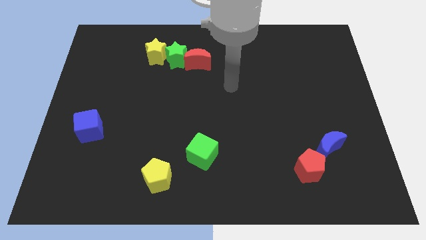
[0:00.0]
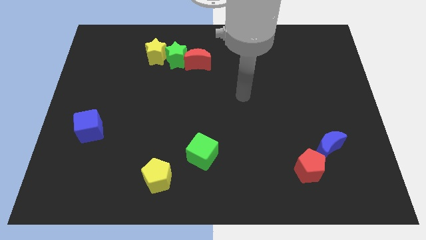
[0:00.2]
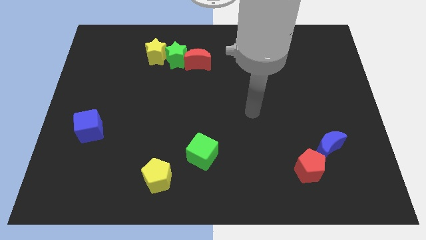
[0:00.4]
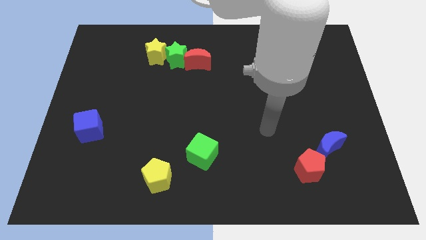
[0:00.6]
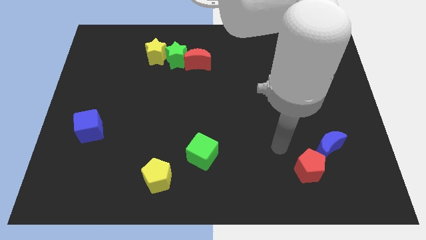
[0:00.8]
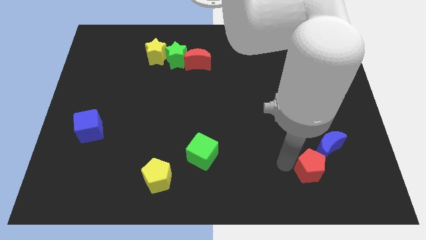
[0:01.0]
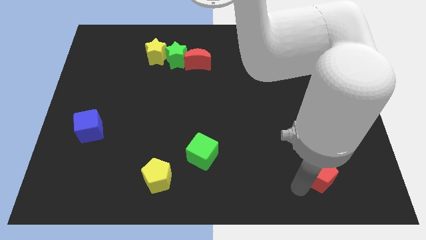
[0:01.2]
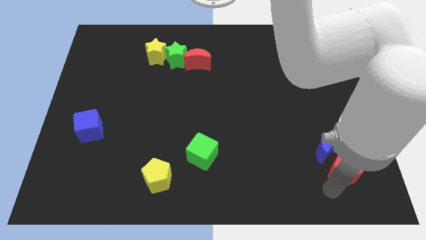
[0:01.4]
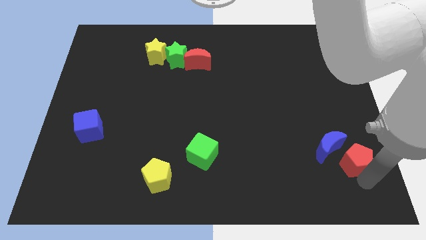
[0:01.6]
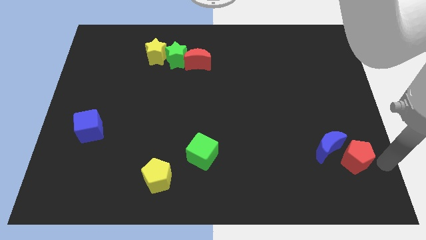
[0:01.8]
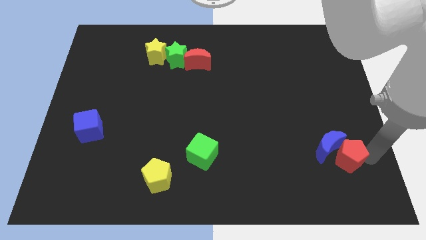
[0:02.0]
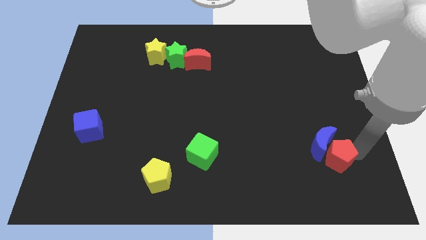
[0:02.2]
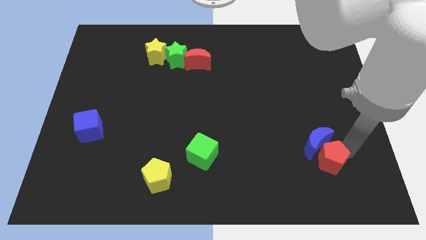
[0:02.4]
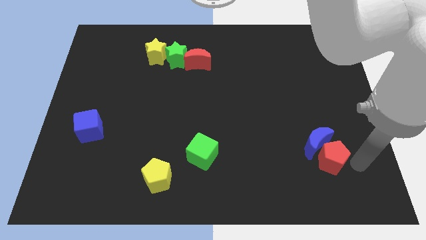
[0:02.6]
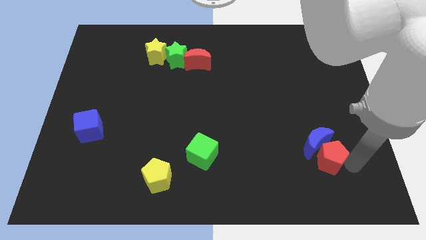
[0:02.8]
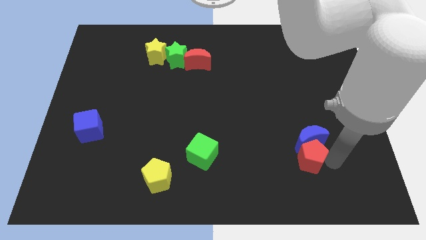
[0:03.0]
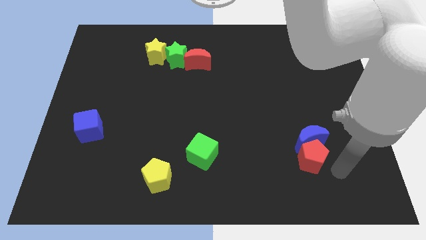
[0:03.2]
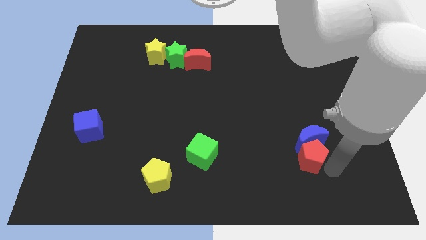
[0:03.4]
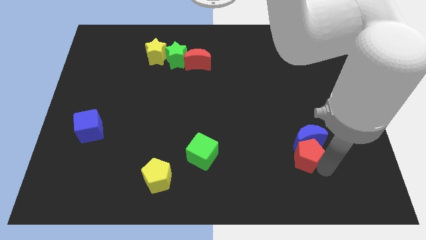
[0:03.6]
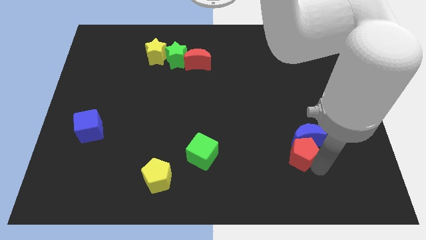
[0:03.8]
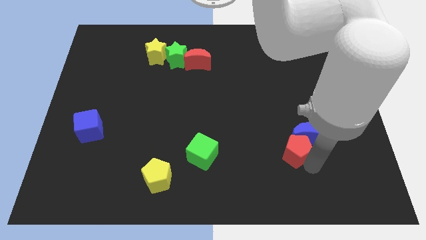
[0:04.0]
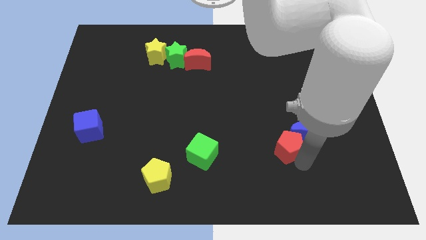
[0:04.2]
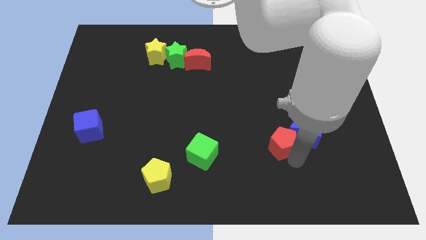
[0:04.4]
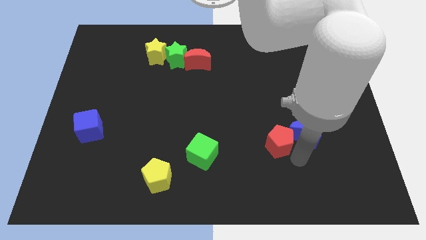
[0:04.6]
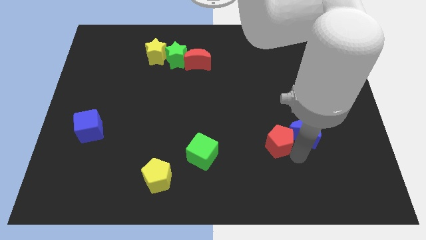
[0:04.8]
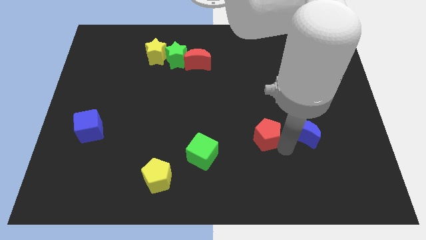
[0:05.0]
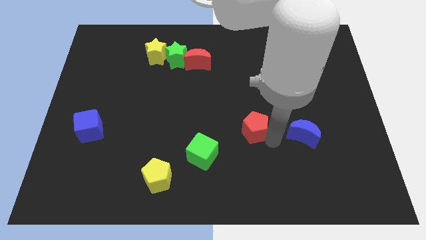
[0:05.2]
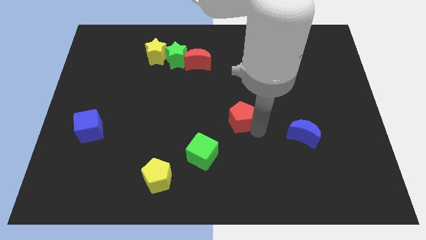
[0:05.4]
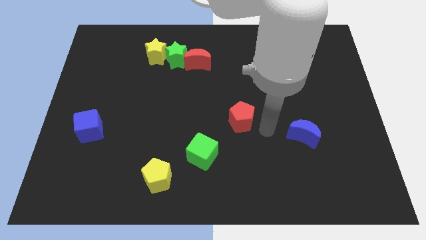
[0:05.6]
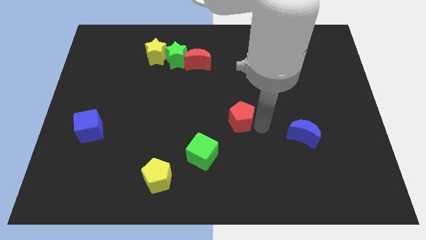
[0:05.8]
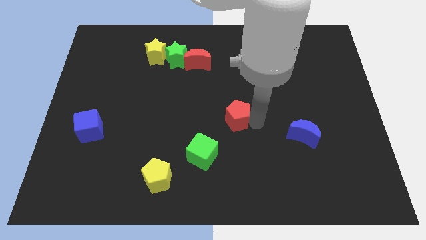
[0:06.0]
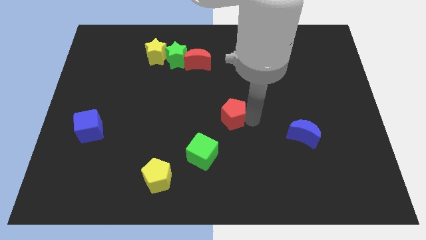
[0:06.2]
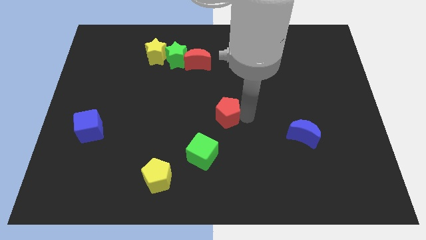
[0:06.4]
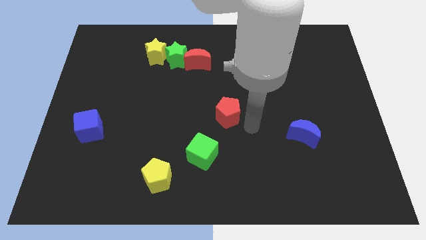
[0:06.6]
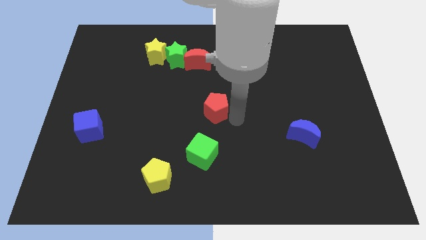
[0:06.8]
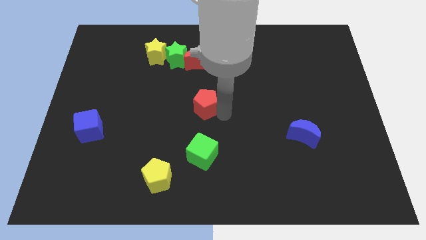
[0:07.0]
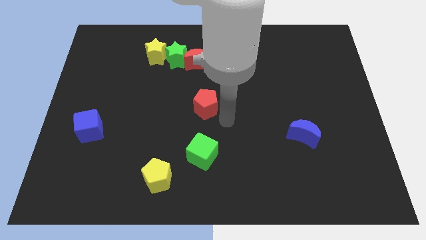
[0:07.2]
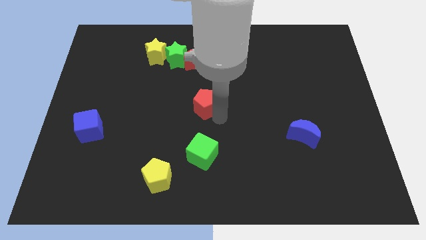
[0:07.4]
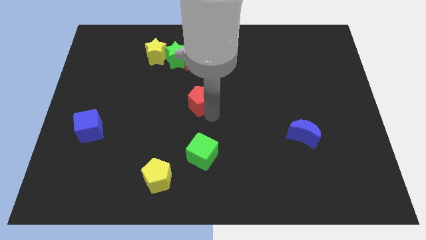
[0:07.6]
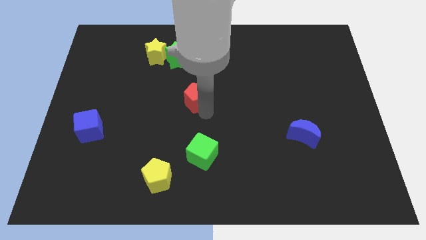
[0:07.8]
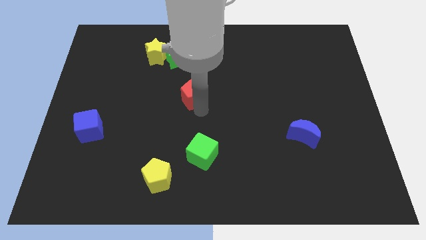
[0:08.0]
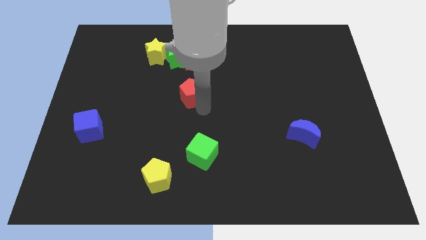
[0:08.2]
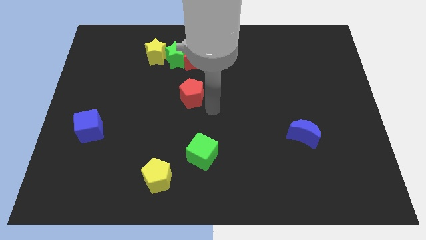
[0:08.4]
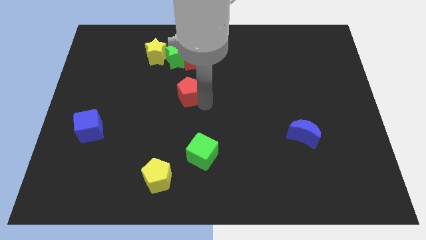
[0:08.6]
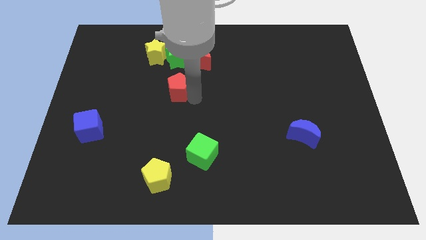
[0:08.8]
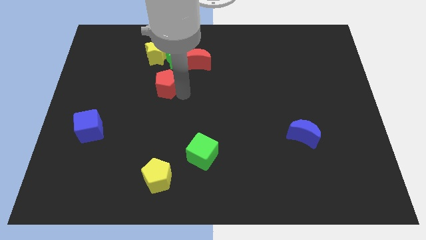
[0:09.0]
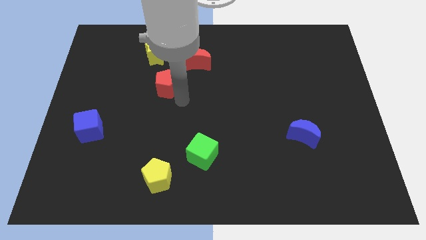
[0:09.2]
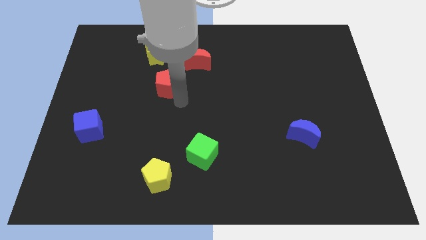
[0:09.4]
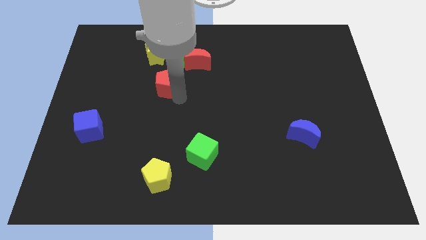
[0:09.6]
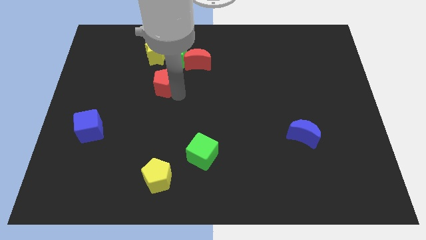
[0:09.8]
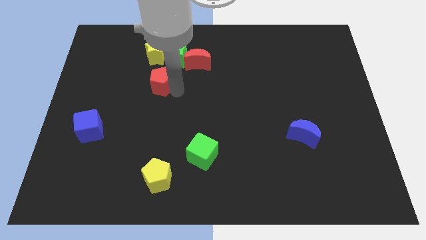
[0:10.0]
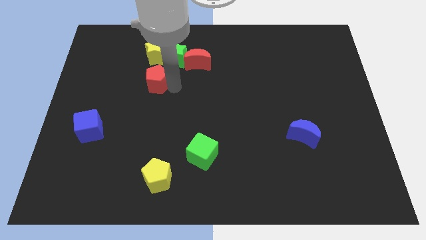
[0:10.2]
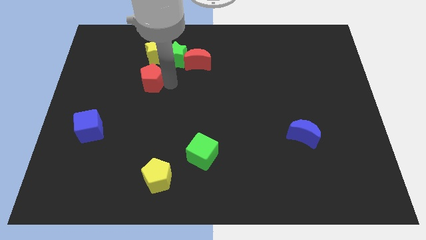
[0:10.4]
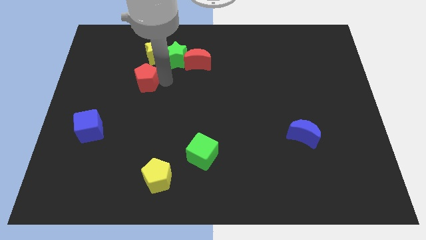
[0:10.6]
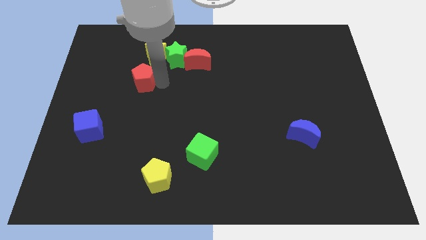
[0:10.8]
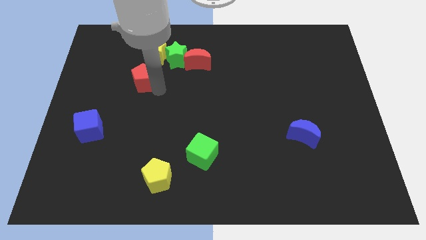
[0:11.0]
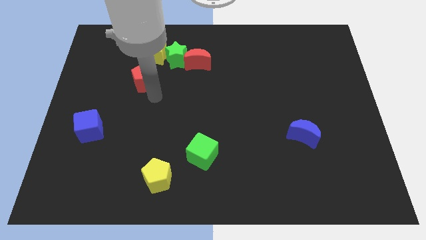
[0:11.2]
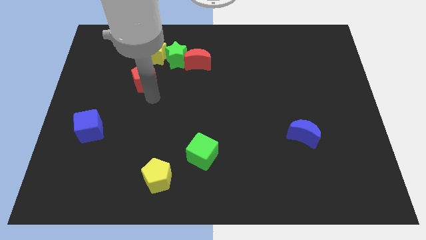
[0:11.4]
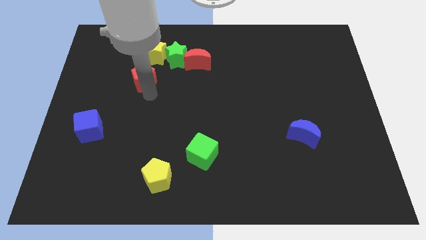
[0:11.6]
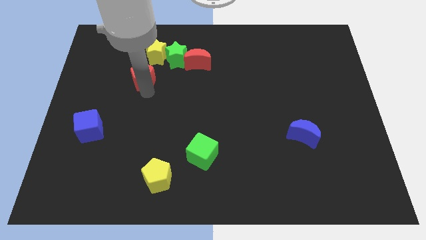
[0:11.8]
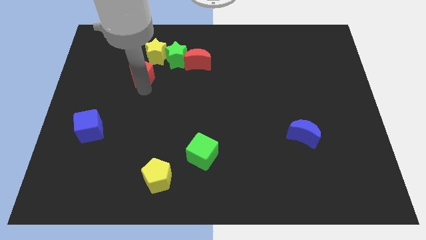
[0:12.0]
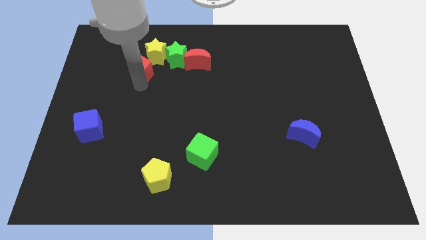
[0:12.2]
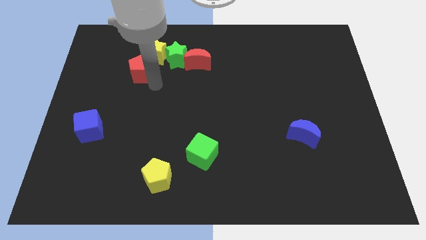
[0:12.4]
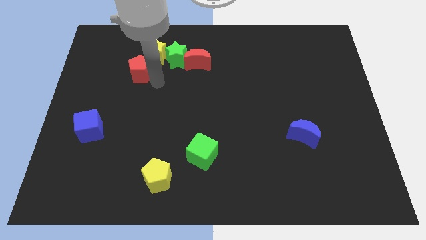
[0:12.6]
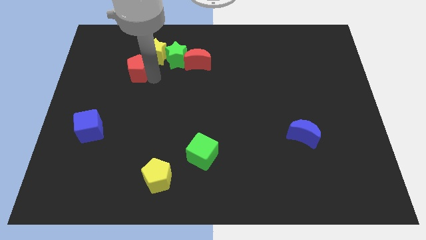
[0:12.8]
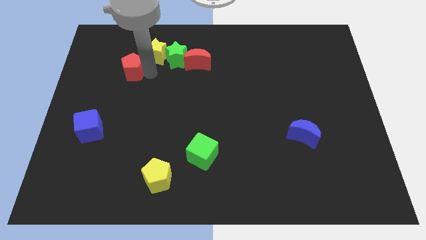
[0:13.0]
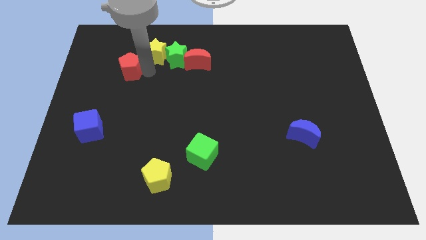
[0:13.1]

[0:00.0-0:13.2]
slide the red pentagon left of the yellow star

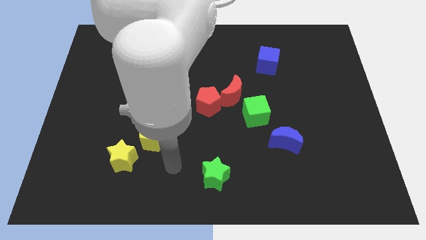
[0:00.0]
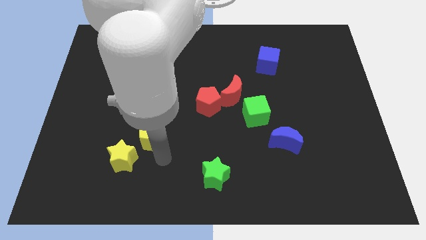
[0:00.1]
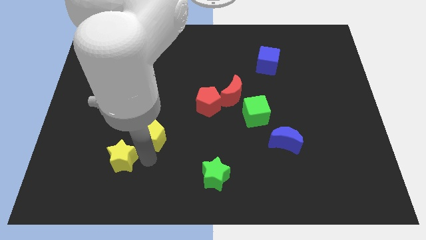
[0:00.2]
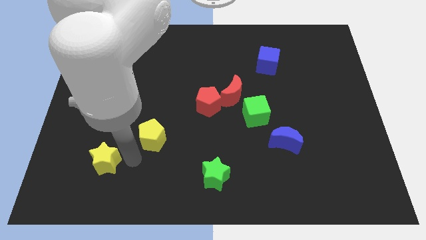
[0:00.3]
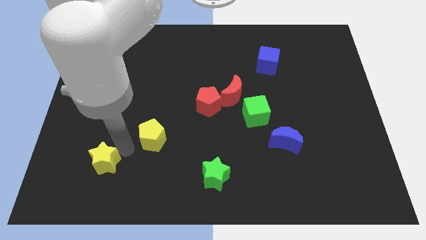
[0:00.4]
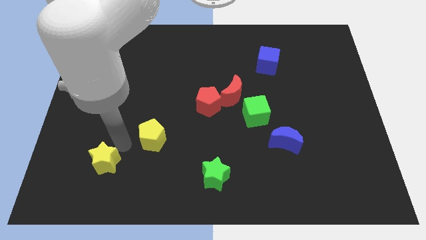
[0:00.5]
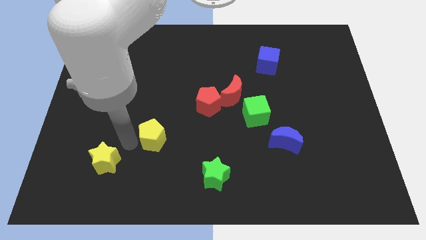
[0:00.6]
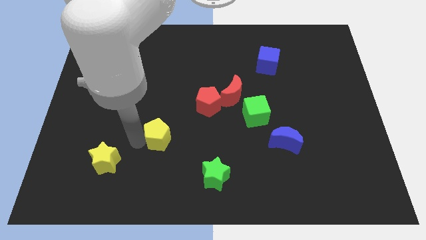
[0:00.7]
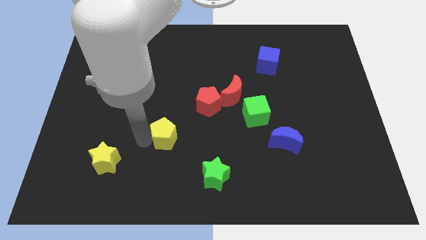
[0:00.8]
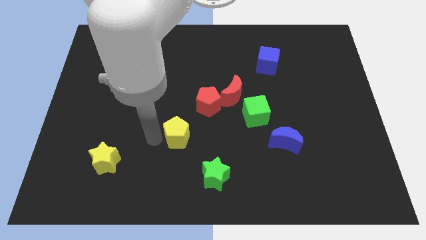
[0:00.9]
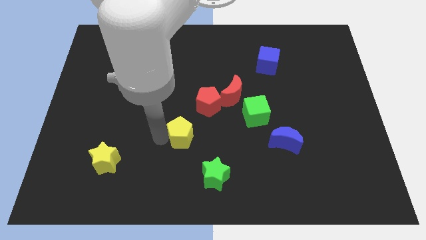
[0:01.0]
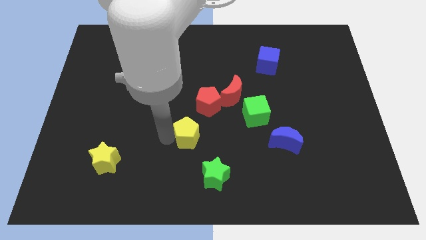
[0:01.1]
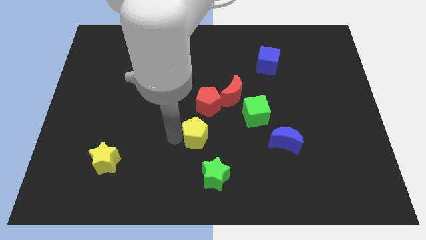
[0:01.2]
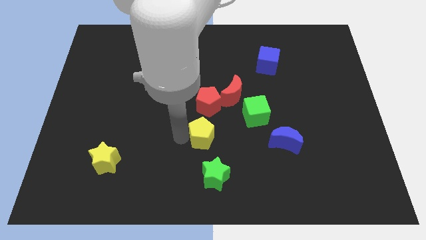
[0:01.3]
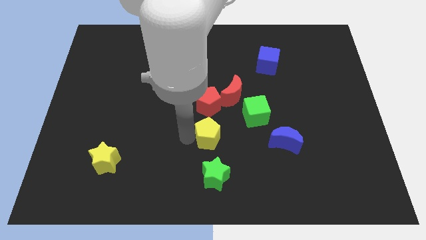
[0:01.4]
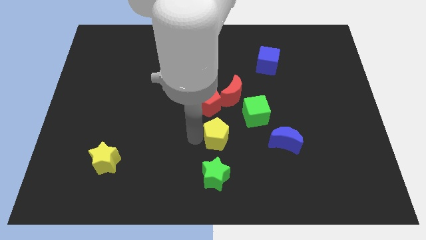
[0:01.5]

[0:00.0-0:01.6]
push the yellow pentagon to the bottom left of the green cube
